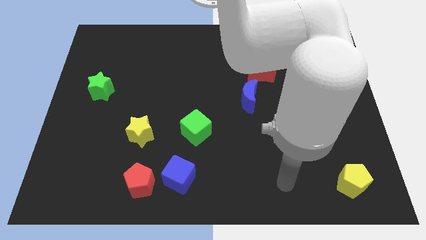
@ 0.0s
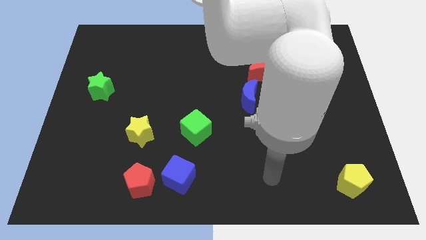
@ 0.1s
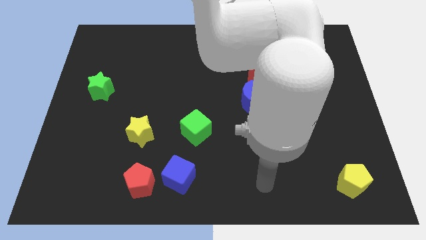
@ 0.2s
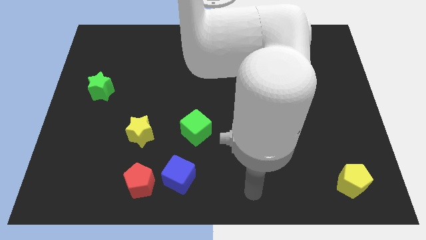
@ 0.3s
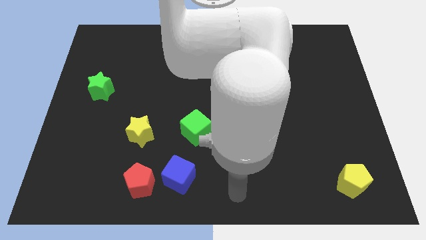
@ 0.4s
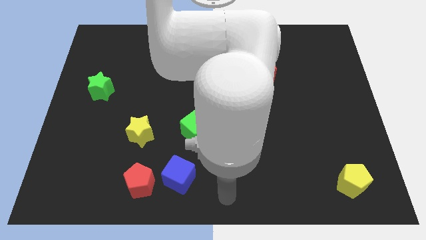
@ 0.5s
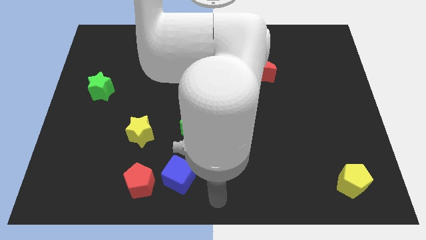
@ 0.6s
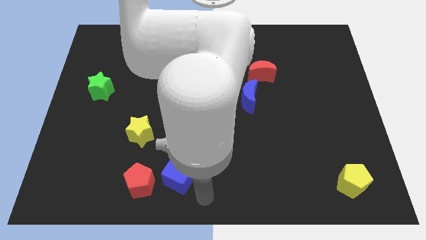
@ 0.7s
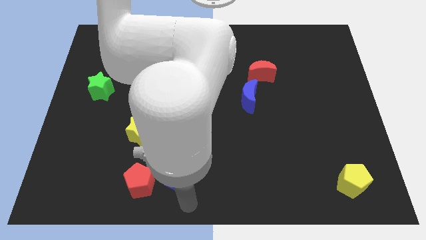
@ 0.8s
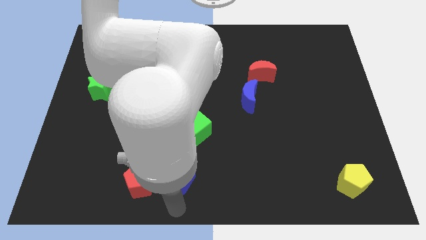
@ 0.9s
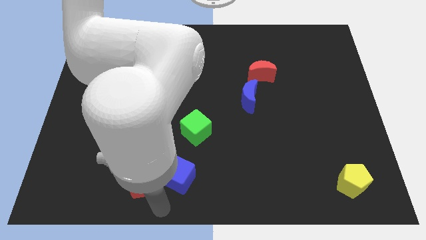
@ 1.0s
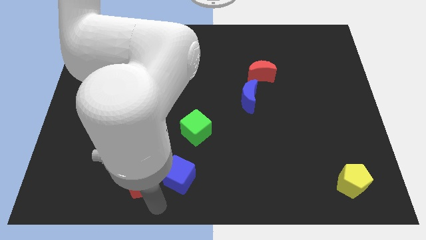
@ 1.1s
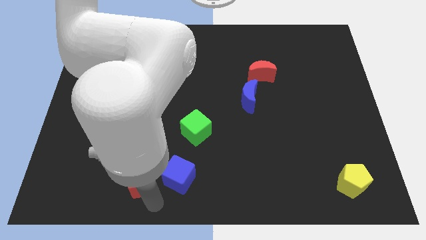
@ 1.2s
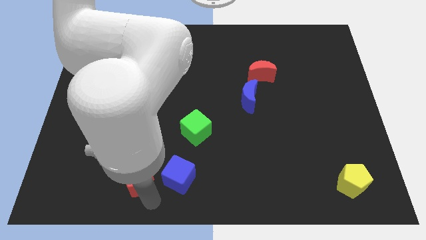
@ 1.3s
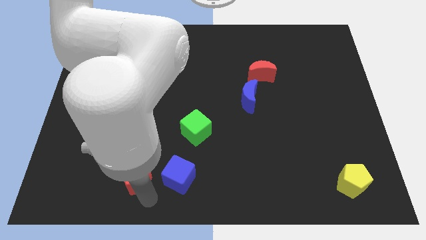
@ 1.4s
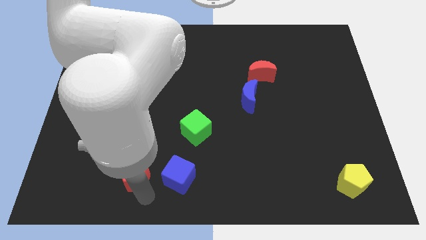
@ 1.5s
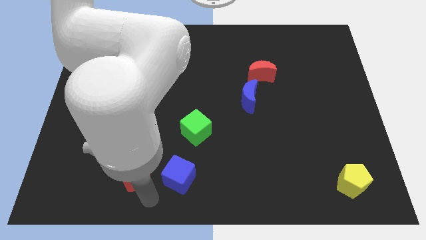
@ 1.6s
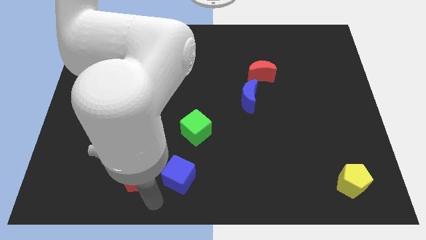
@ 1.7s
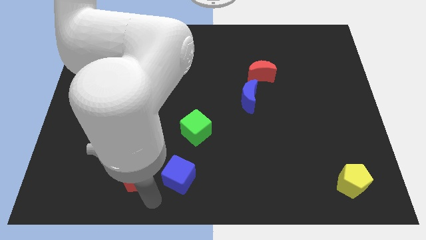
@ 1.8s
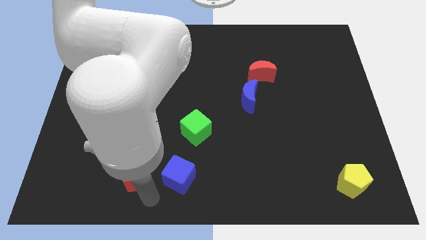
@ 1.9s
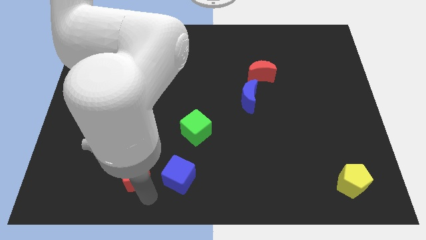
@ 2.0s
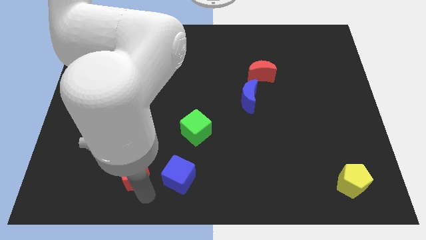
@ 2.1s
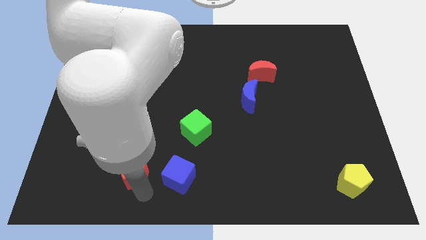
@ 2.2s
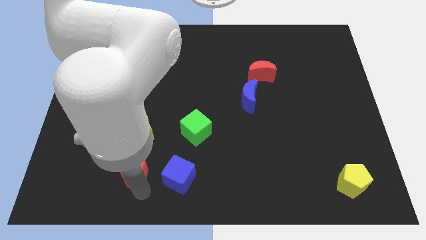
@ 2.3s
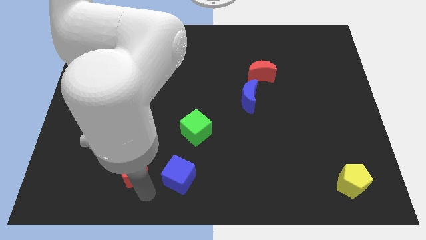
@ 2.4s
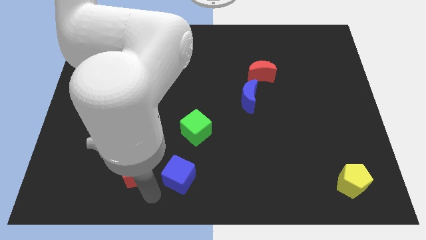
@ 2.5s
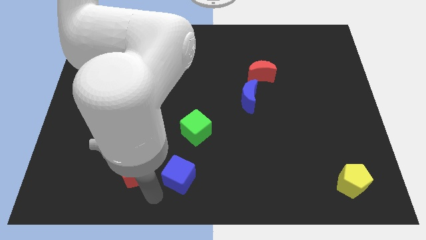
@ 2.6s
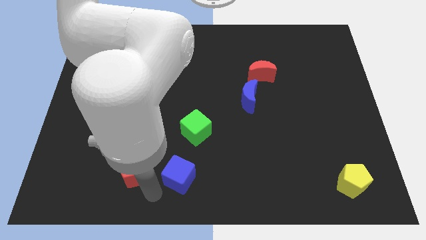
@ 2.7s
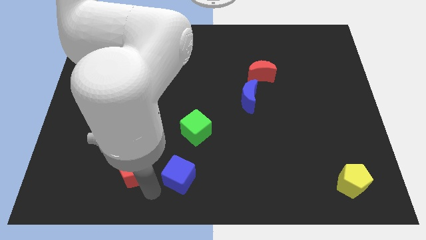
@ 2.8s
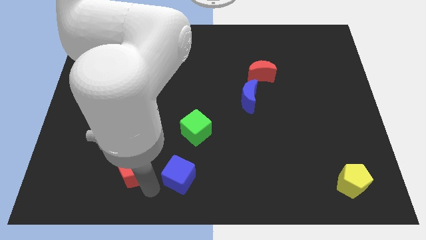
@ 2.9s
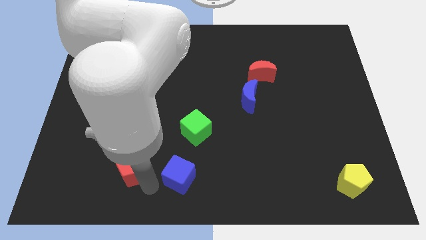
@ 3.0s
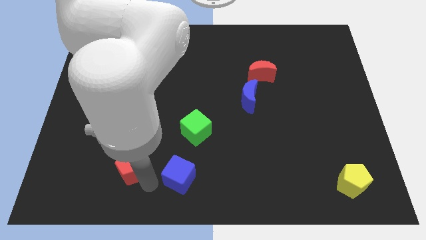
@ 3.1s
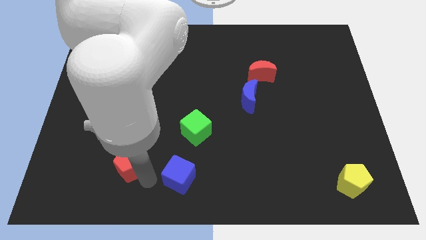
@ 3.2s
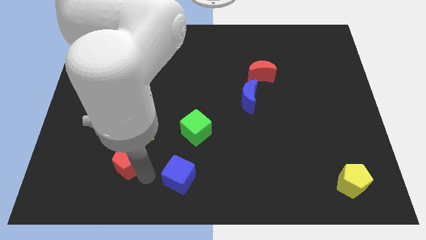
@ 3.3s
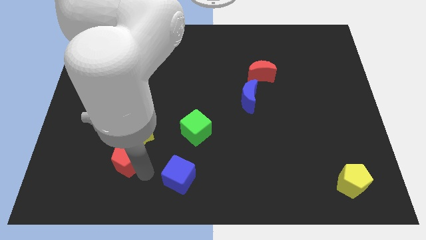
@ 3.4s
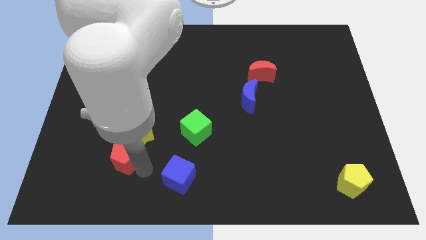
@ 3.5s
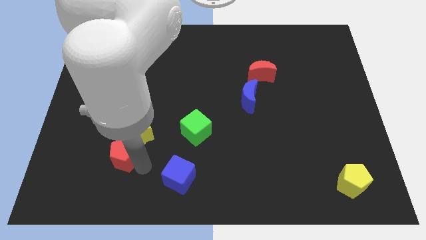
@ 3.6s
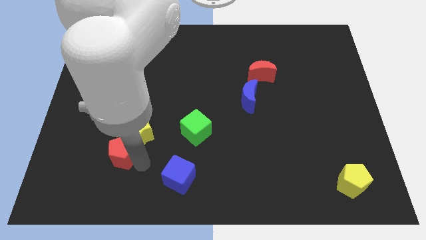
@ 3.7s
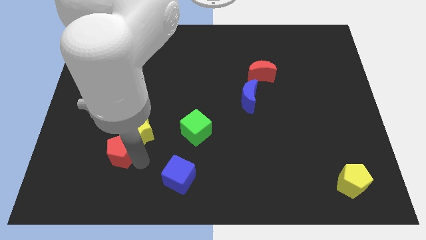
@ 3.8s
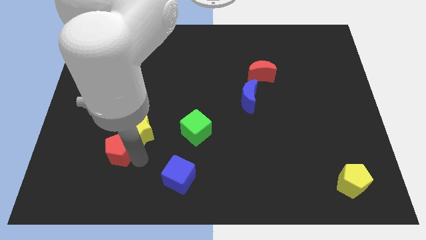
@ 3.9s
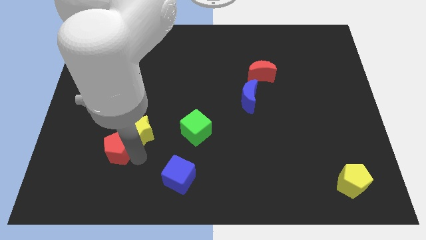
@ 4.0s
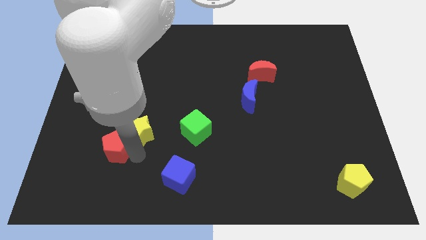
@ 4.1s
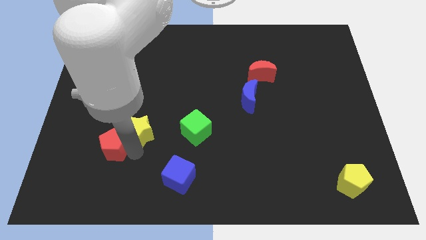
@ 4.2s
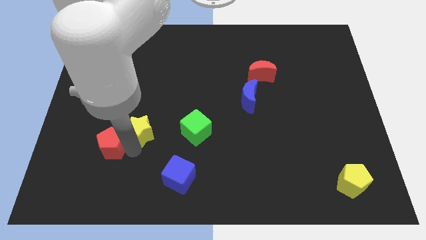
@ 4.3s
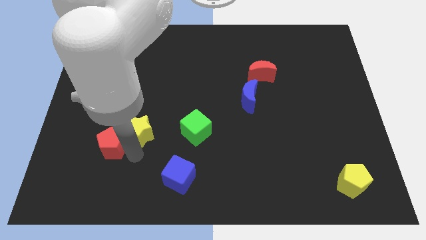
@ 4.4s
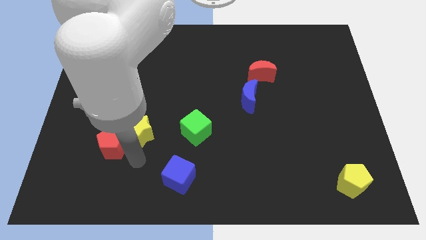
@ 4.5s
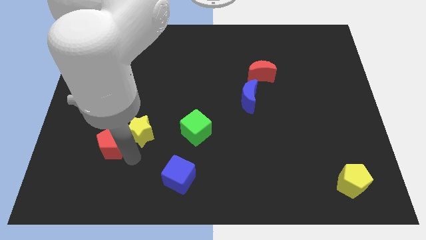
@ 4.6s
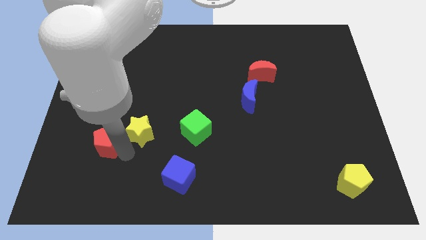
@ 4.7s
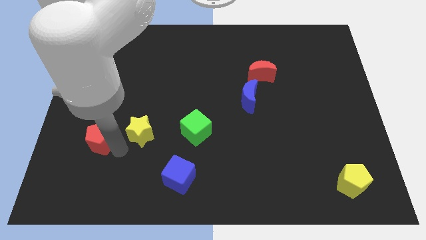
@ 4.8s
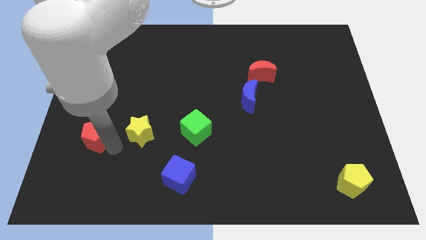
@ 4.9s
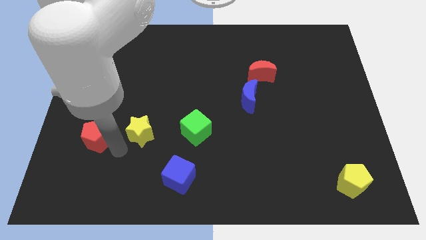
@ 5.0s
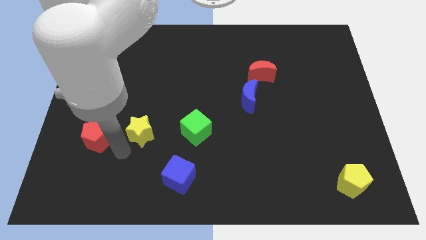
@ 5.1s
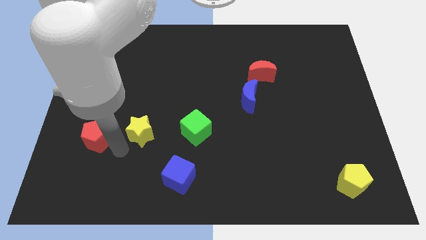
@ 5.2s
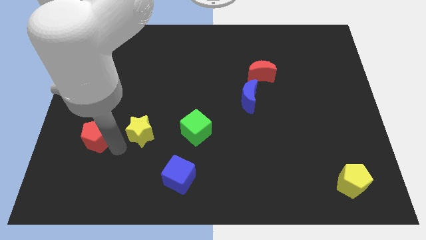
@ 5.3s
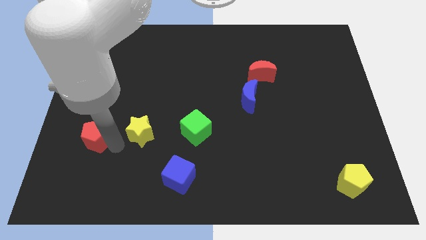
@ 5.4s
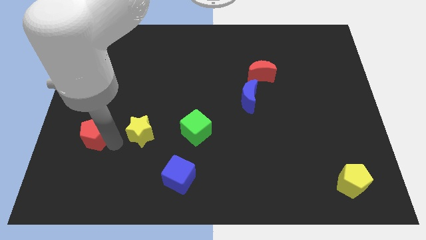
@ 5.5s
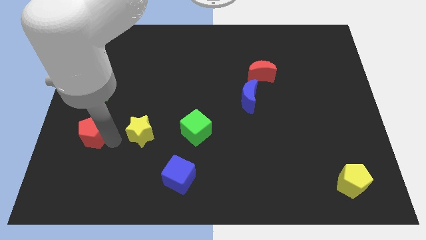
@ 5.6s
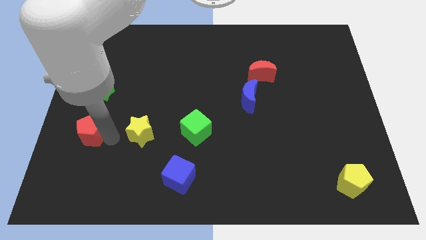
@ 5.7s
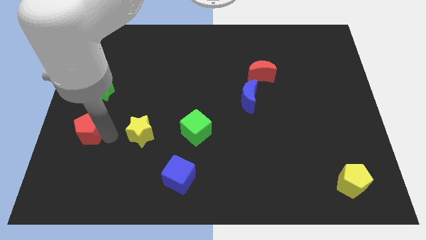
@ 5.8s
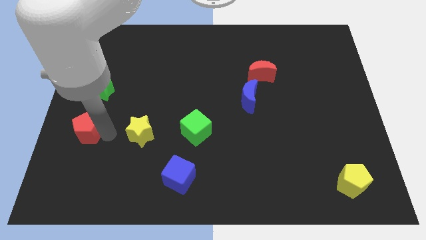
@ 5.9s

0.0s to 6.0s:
put the red pentagon to the left side of the board

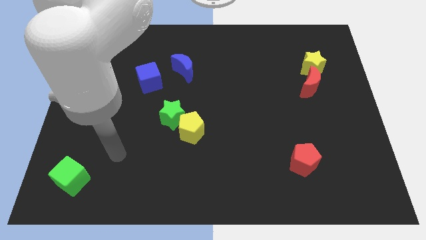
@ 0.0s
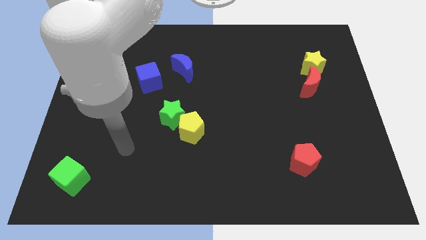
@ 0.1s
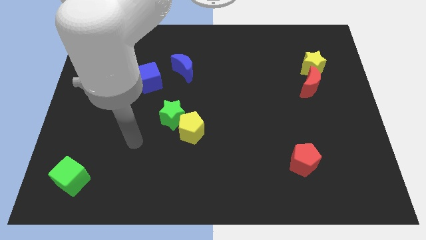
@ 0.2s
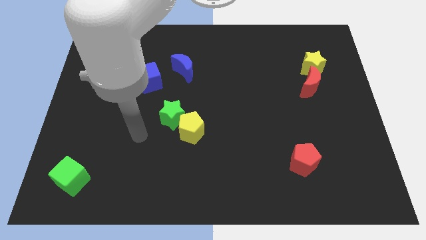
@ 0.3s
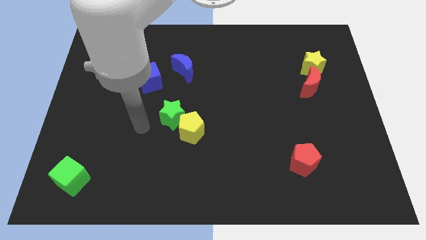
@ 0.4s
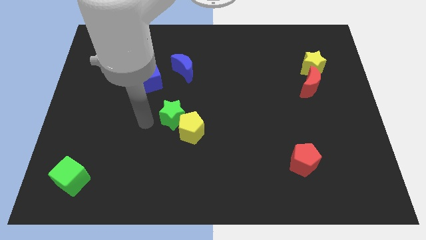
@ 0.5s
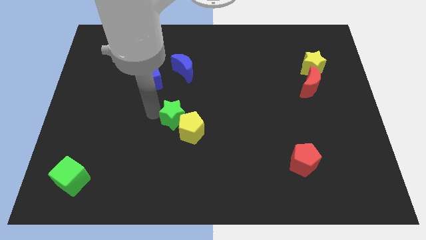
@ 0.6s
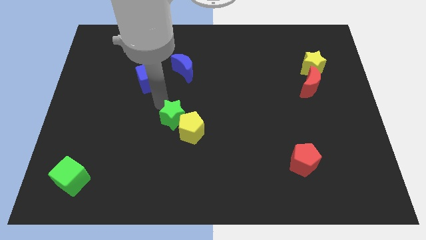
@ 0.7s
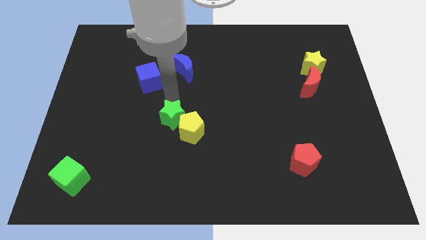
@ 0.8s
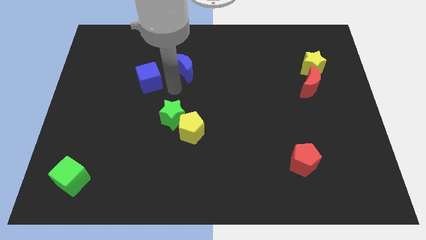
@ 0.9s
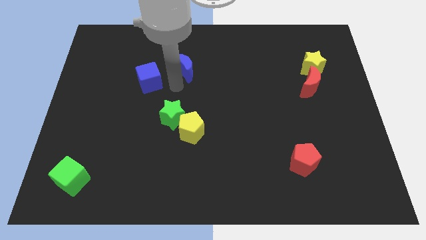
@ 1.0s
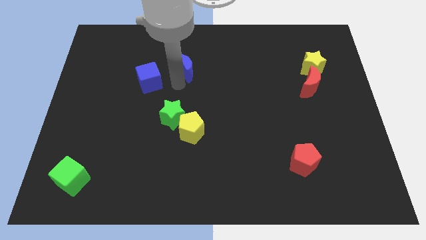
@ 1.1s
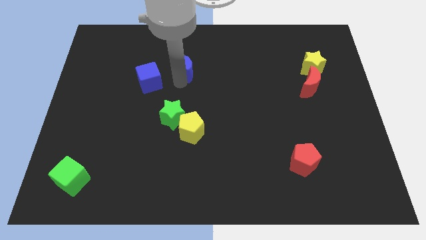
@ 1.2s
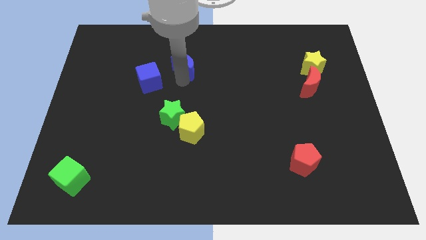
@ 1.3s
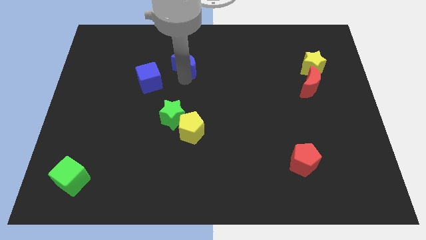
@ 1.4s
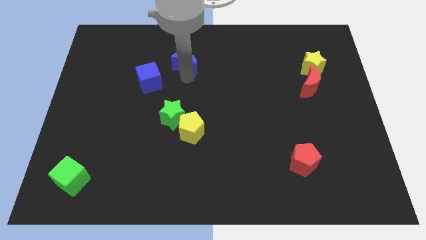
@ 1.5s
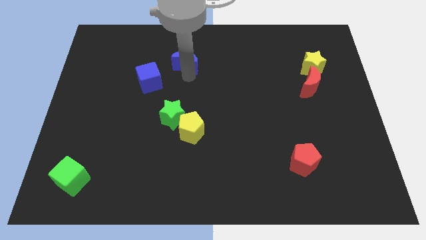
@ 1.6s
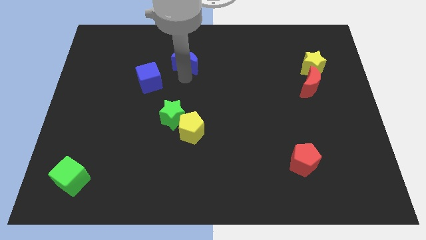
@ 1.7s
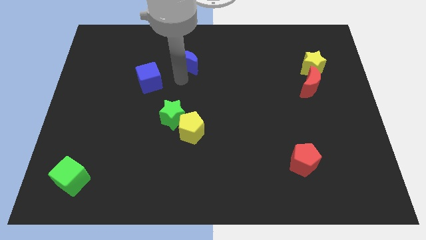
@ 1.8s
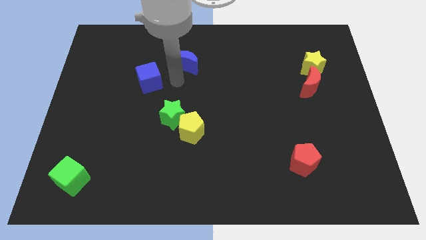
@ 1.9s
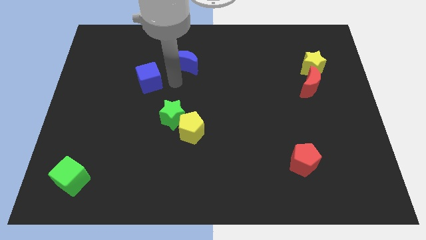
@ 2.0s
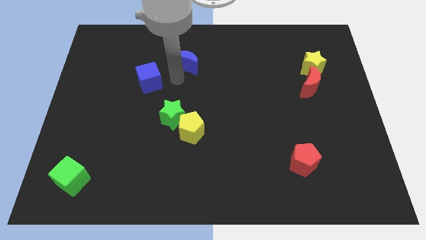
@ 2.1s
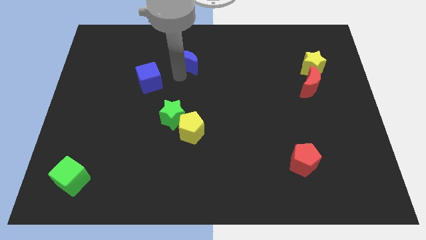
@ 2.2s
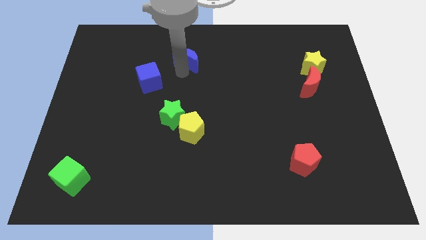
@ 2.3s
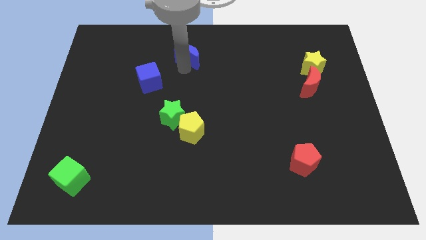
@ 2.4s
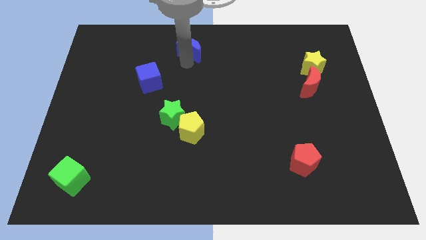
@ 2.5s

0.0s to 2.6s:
move the blue moon to the towards your base
